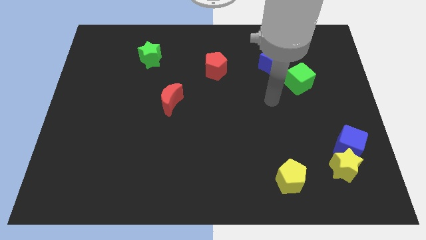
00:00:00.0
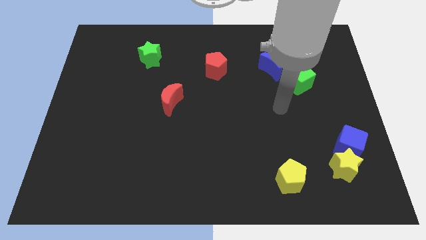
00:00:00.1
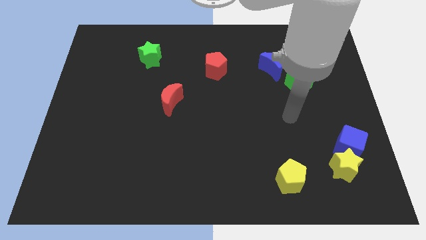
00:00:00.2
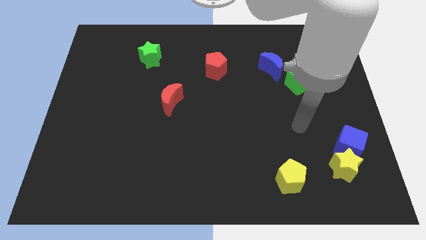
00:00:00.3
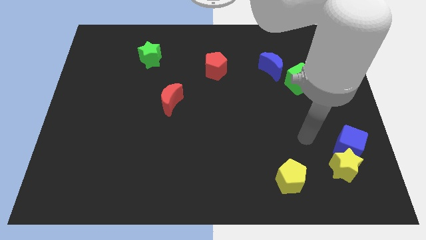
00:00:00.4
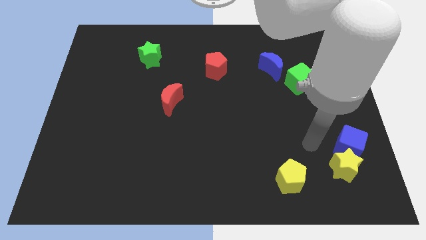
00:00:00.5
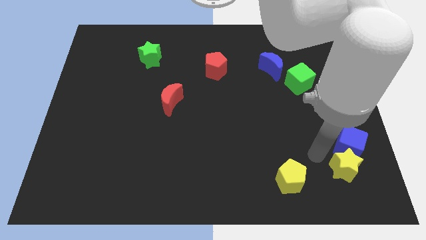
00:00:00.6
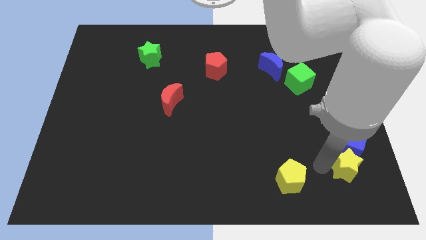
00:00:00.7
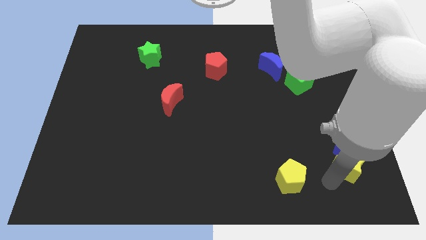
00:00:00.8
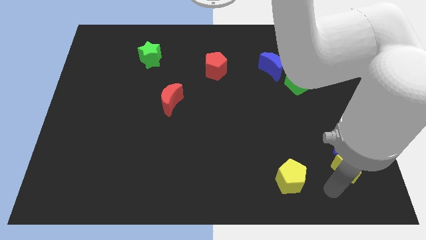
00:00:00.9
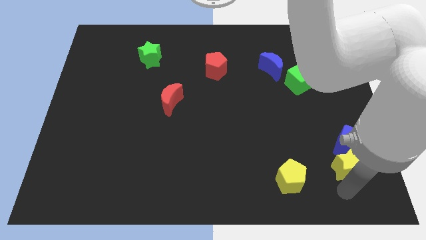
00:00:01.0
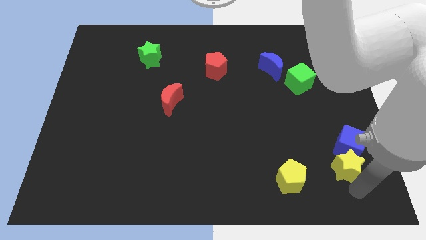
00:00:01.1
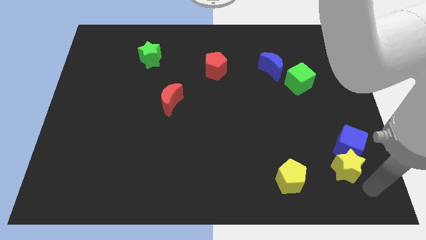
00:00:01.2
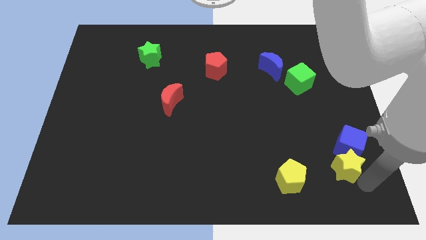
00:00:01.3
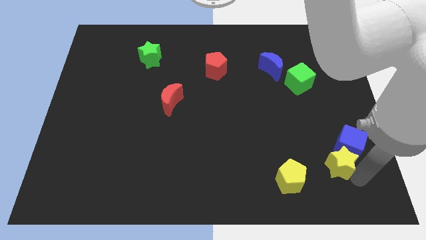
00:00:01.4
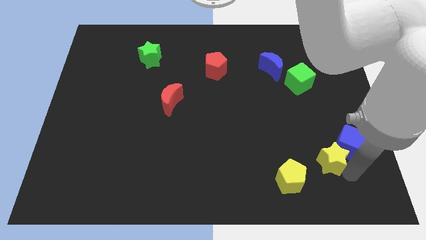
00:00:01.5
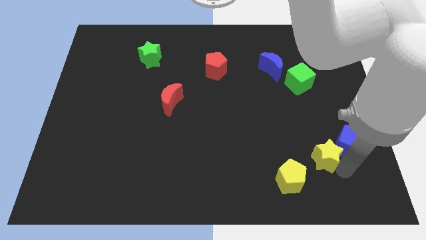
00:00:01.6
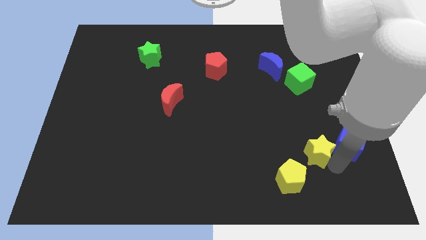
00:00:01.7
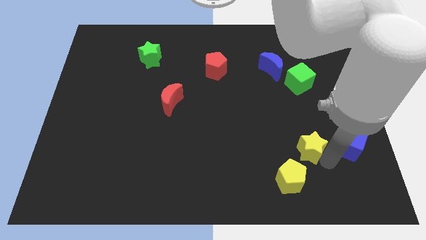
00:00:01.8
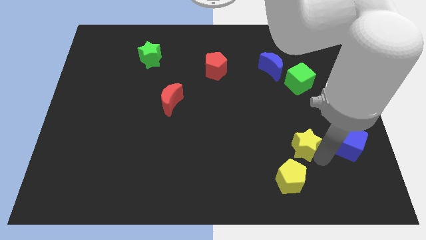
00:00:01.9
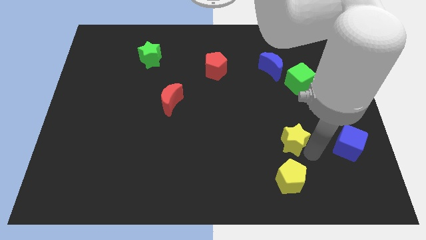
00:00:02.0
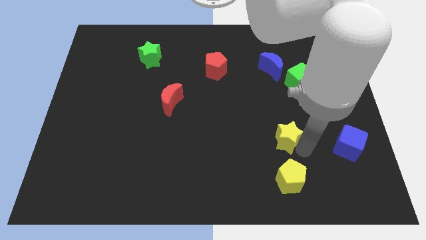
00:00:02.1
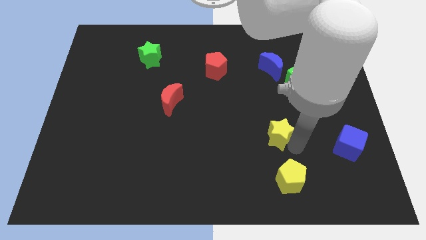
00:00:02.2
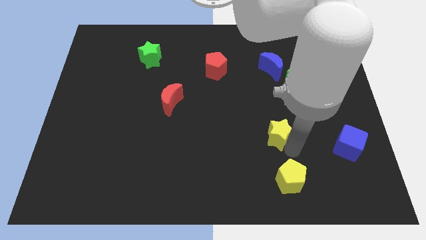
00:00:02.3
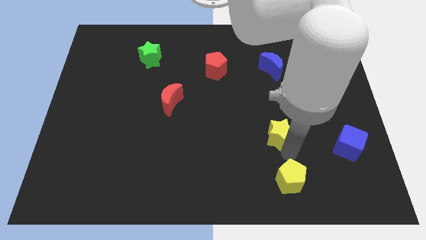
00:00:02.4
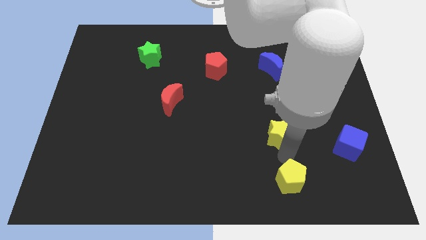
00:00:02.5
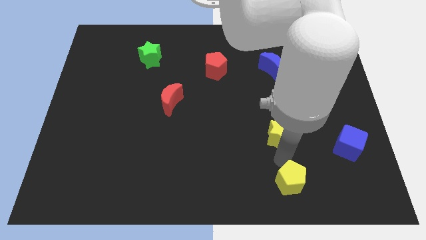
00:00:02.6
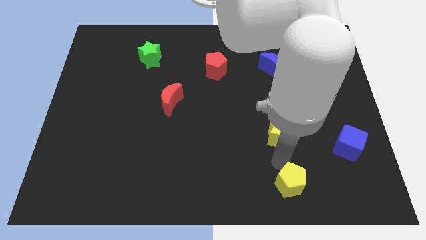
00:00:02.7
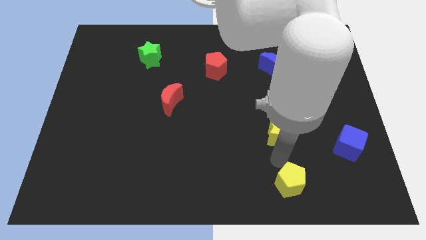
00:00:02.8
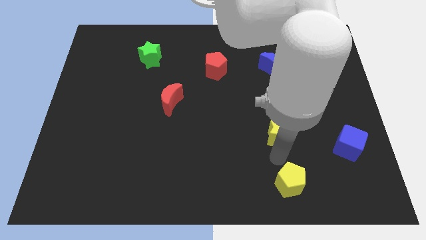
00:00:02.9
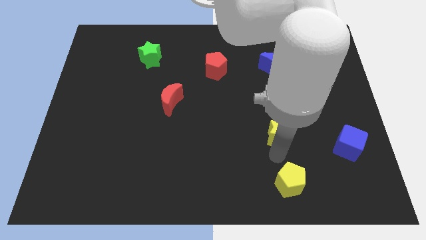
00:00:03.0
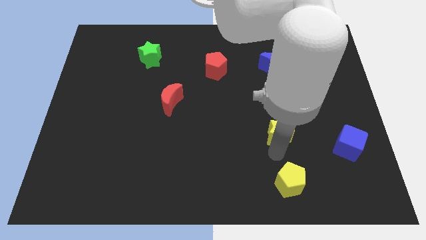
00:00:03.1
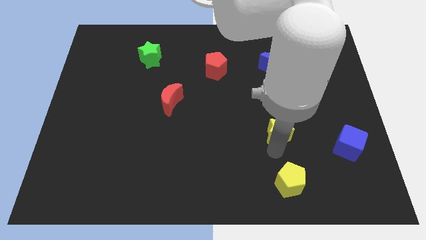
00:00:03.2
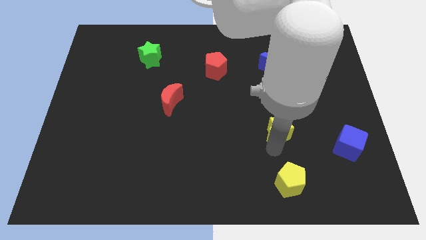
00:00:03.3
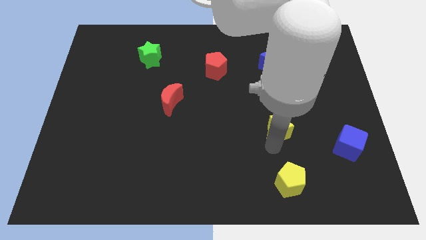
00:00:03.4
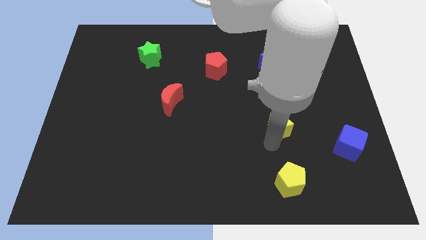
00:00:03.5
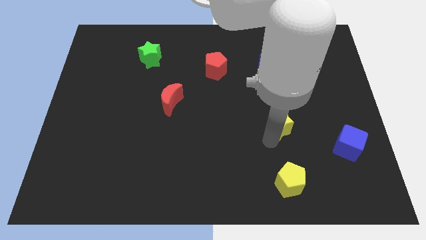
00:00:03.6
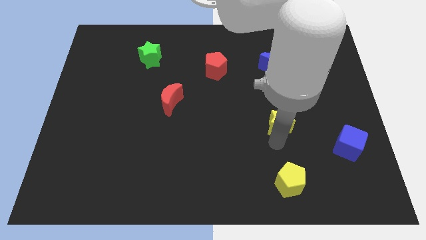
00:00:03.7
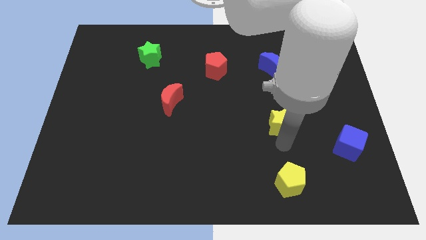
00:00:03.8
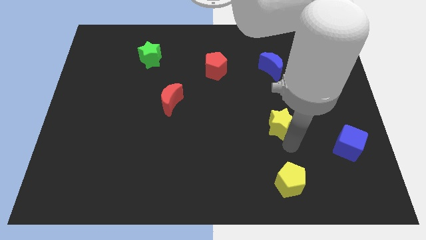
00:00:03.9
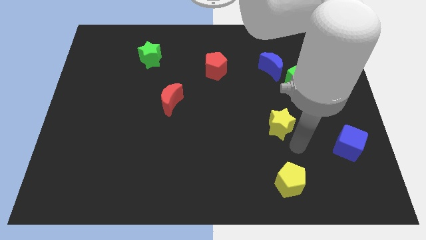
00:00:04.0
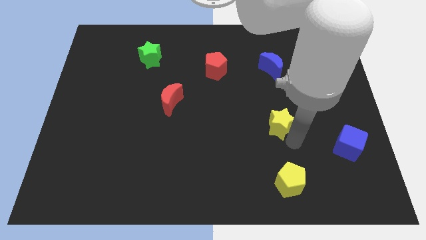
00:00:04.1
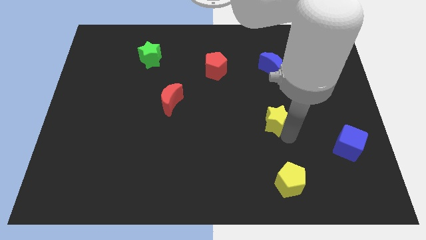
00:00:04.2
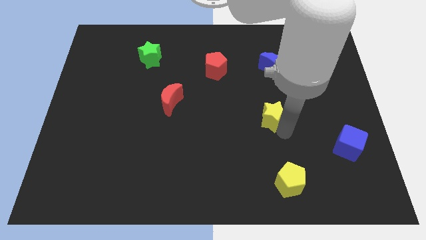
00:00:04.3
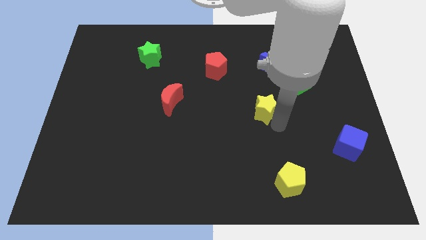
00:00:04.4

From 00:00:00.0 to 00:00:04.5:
move the yellow star up and left

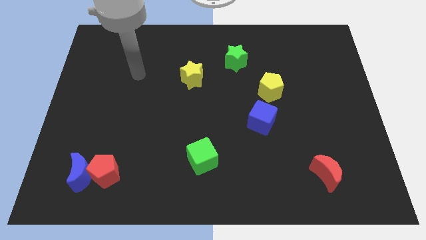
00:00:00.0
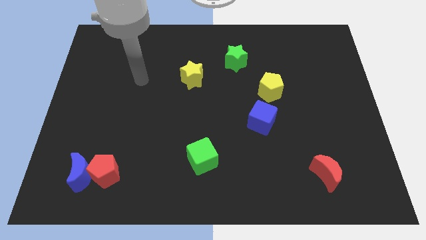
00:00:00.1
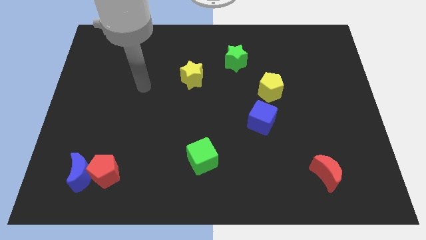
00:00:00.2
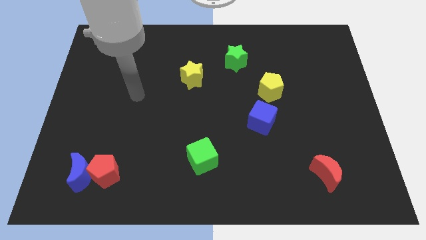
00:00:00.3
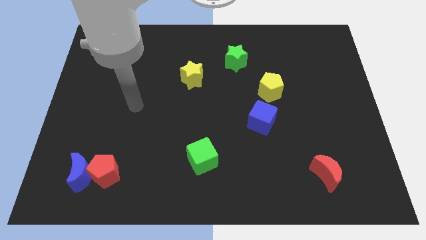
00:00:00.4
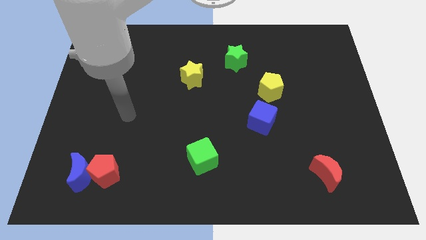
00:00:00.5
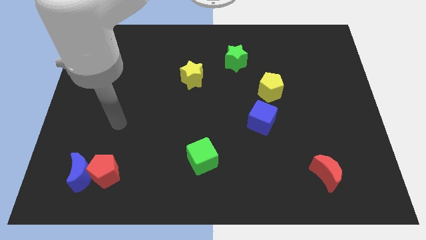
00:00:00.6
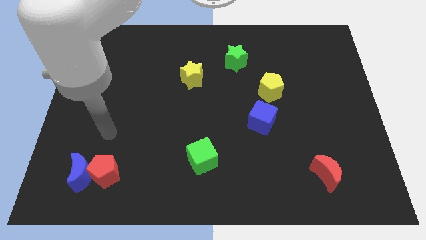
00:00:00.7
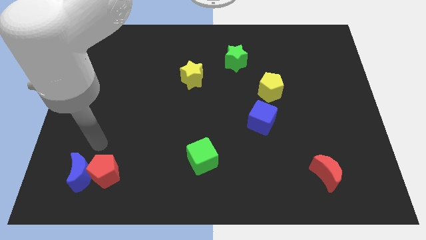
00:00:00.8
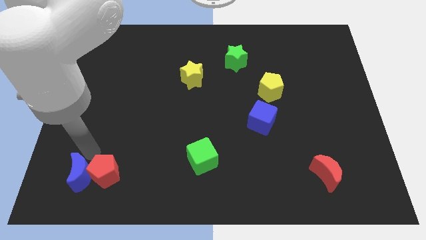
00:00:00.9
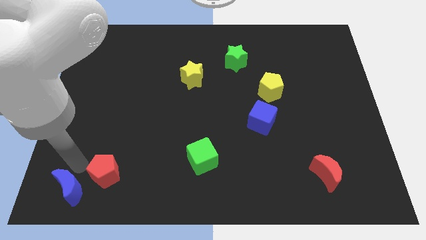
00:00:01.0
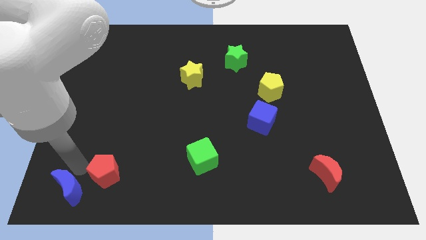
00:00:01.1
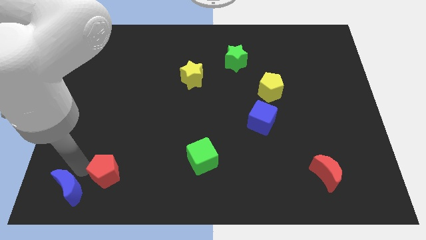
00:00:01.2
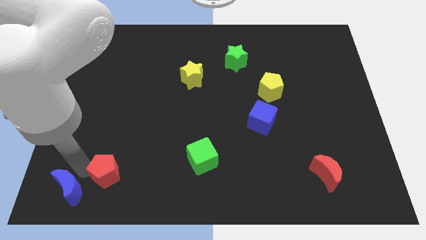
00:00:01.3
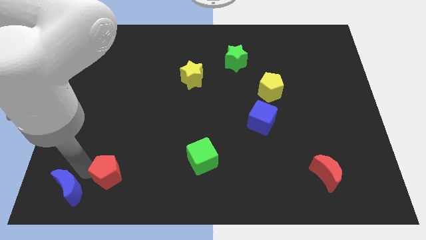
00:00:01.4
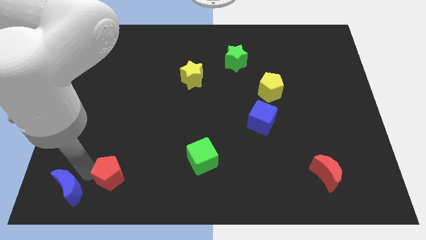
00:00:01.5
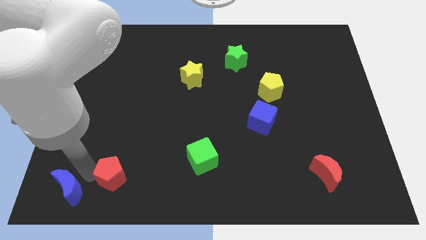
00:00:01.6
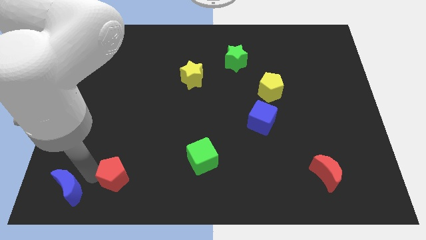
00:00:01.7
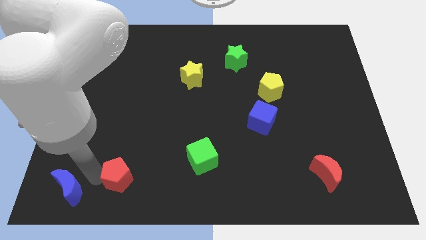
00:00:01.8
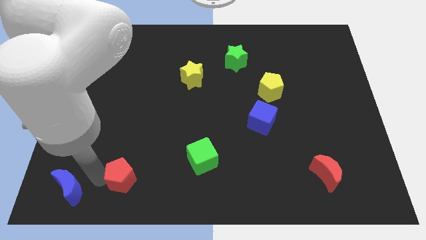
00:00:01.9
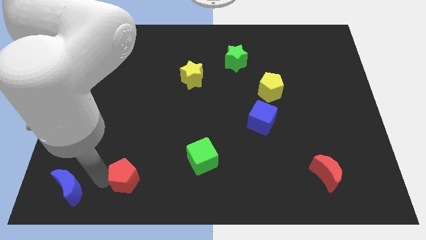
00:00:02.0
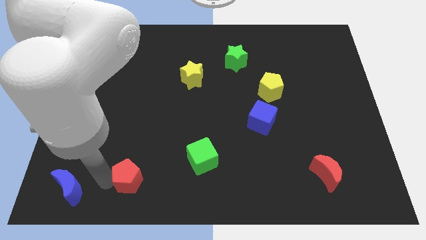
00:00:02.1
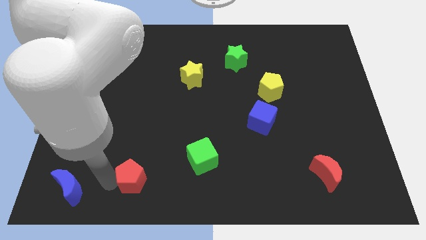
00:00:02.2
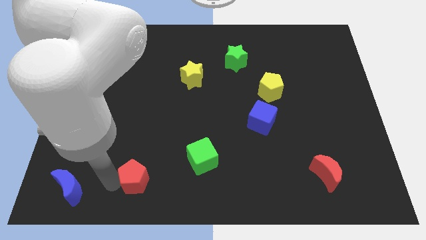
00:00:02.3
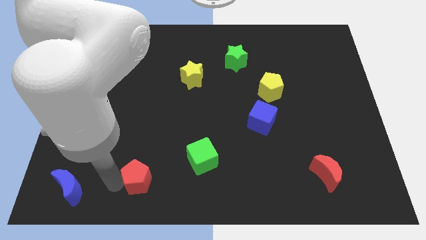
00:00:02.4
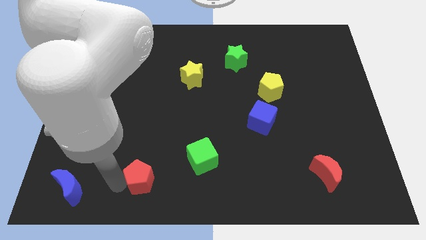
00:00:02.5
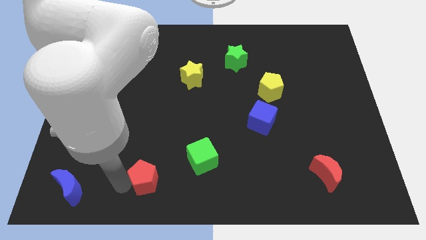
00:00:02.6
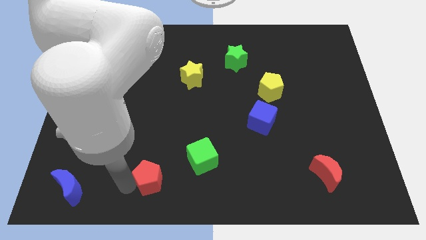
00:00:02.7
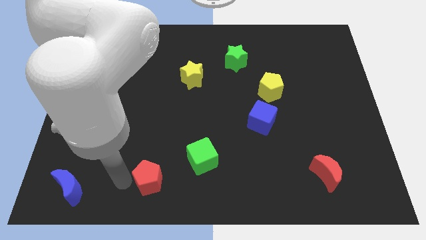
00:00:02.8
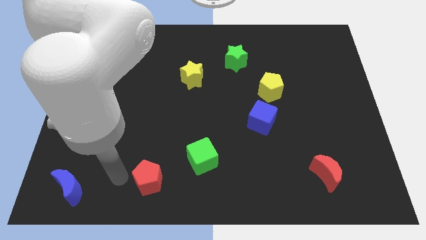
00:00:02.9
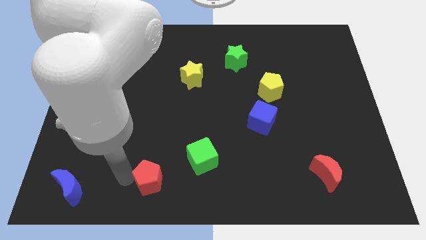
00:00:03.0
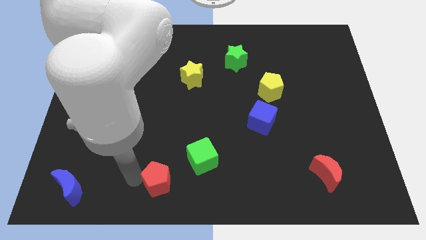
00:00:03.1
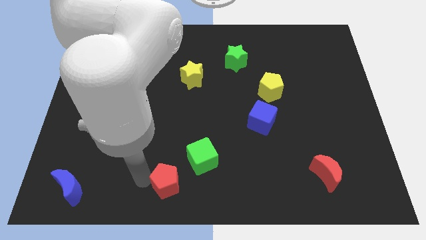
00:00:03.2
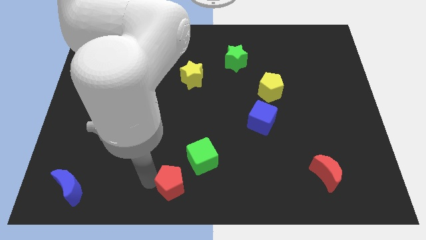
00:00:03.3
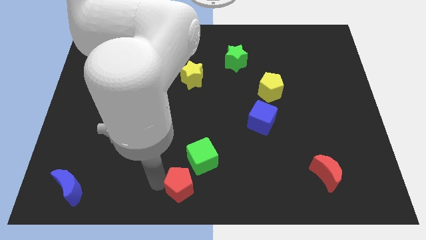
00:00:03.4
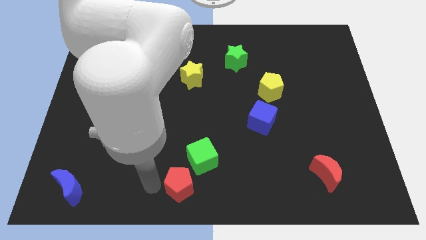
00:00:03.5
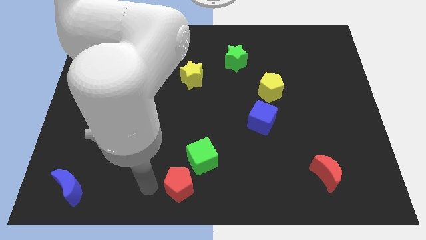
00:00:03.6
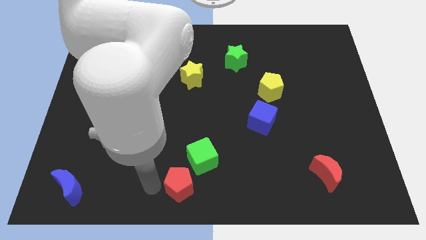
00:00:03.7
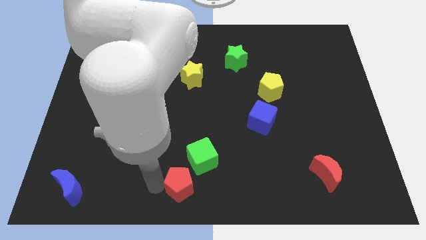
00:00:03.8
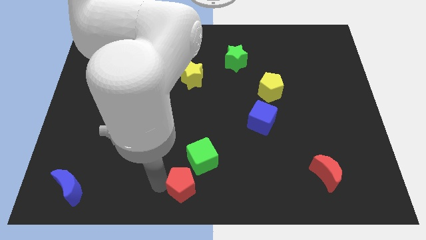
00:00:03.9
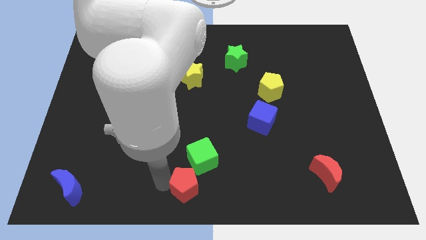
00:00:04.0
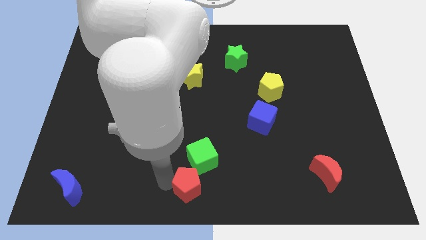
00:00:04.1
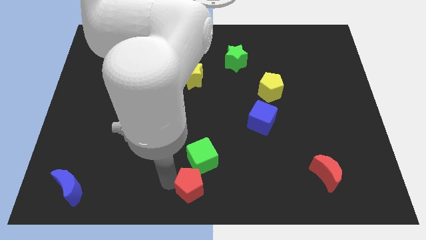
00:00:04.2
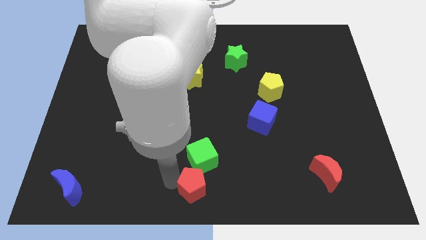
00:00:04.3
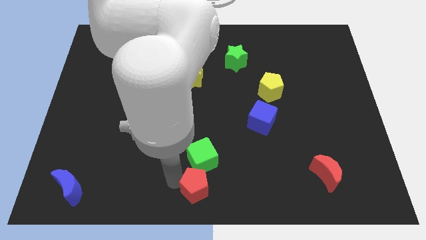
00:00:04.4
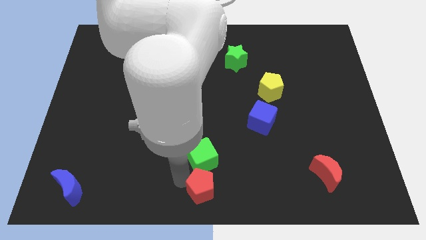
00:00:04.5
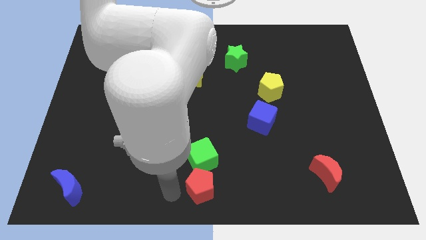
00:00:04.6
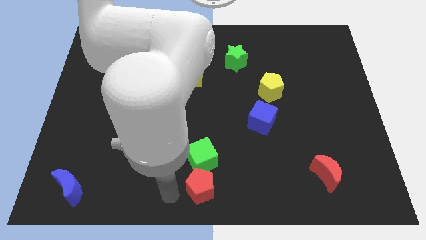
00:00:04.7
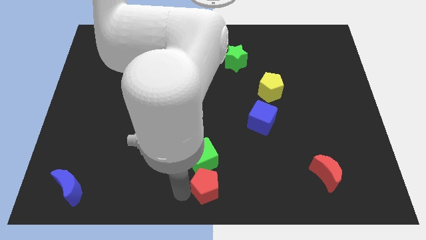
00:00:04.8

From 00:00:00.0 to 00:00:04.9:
push the red pentagon to the right
